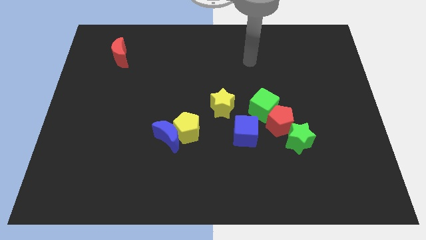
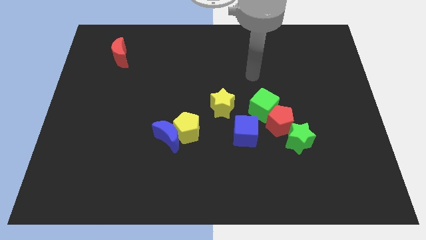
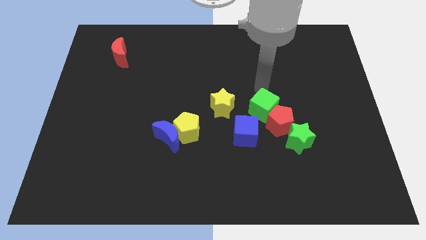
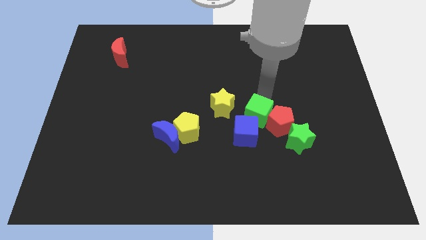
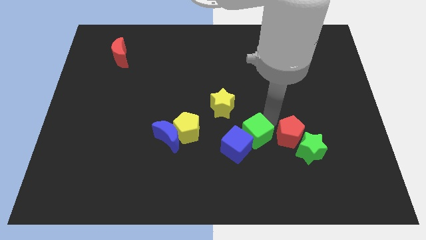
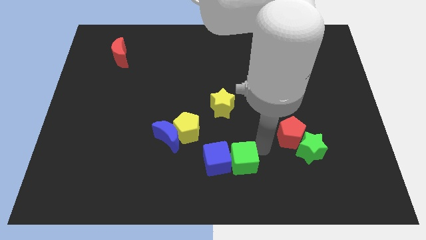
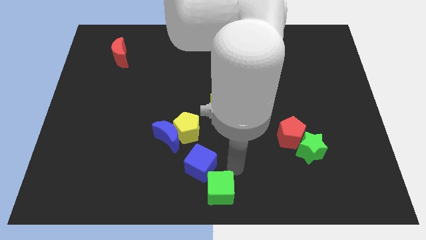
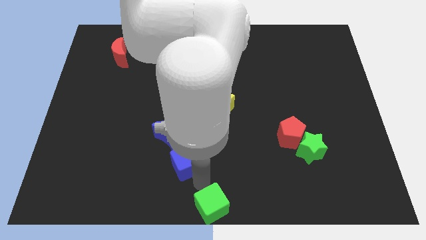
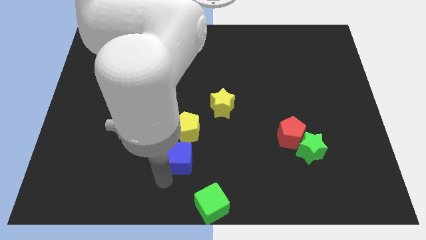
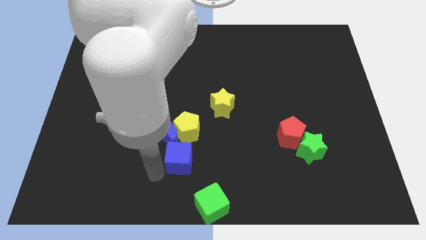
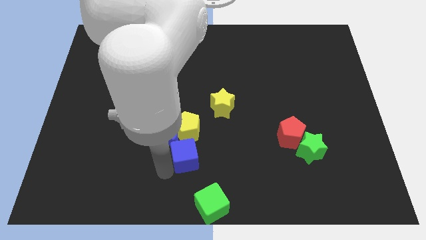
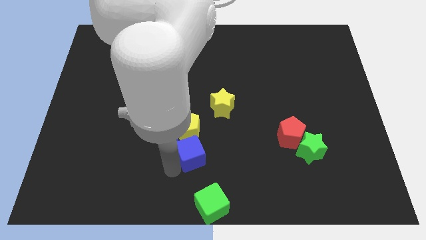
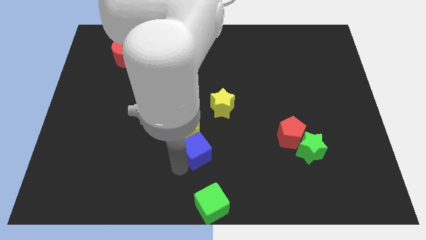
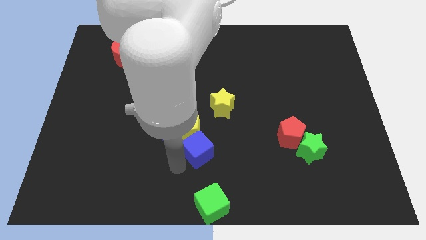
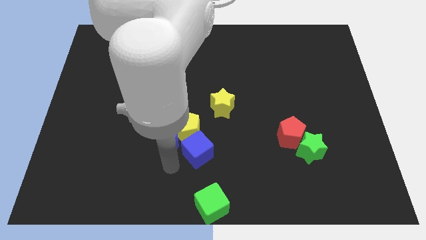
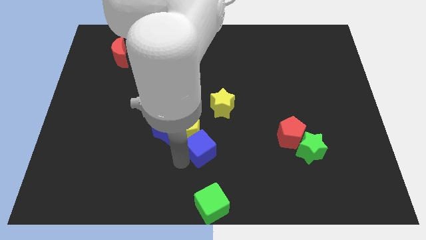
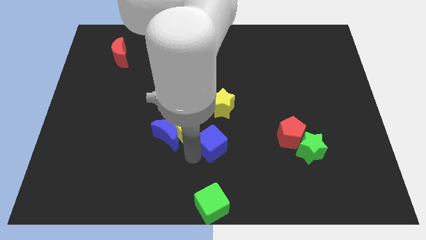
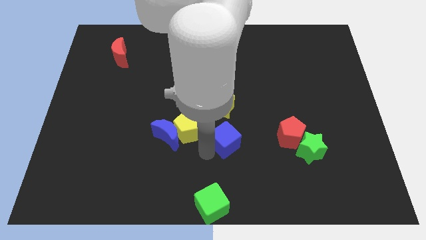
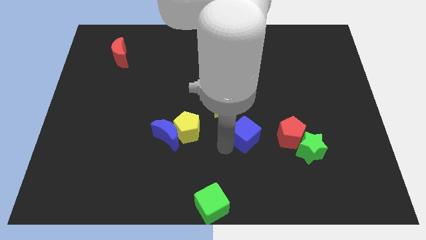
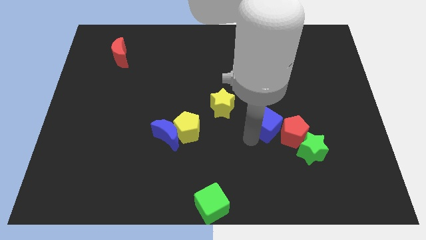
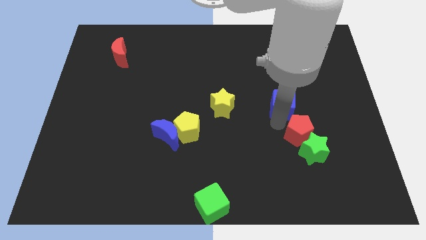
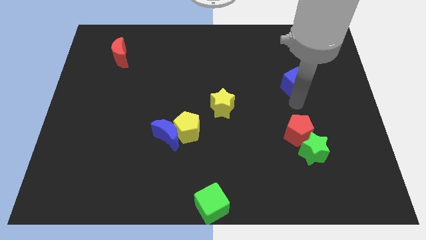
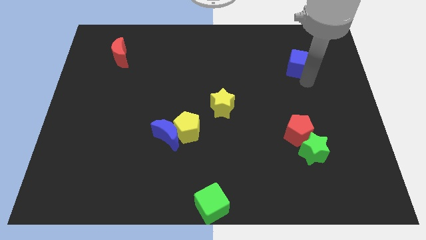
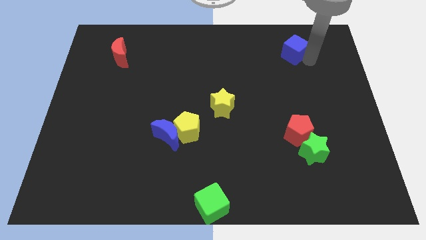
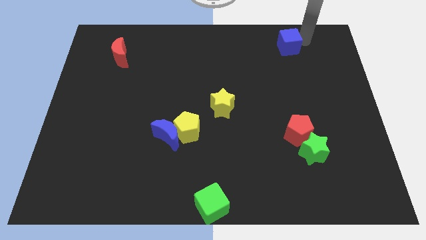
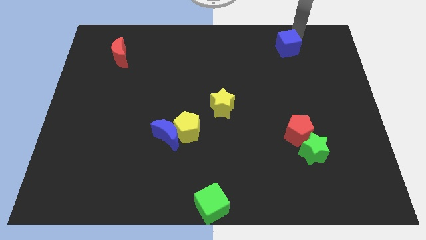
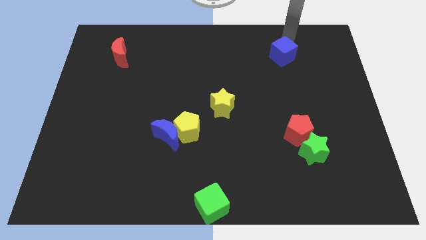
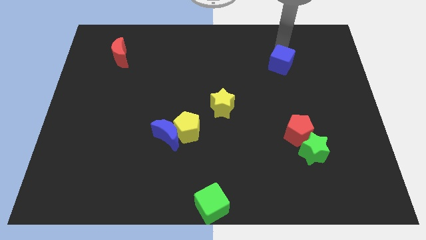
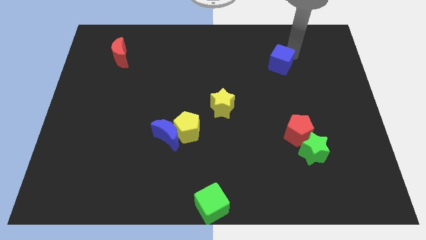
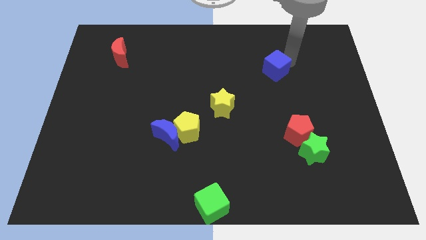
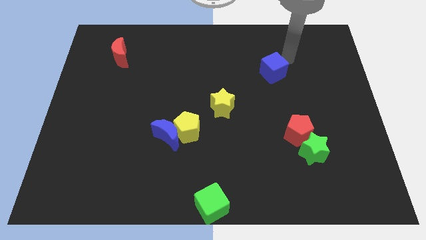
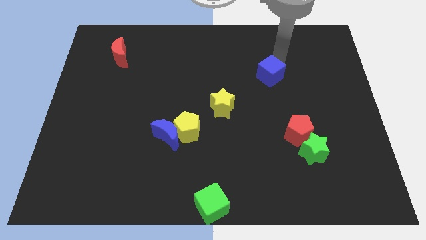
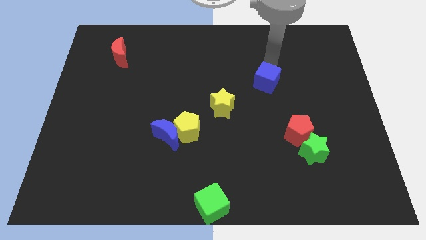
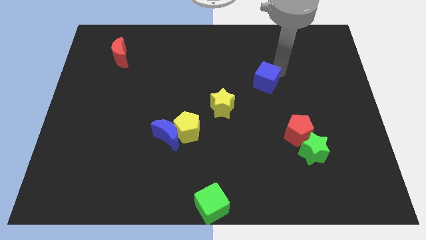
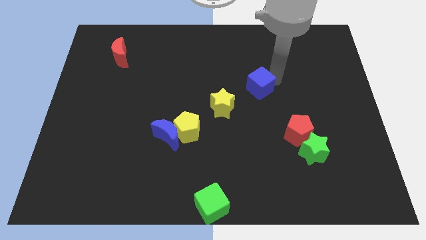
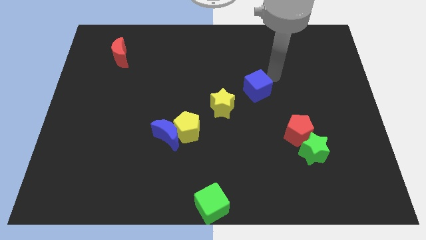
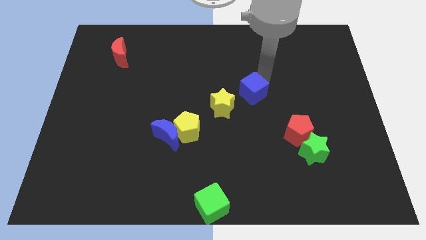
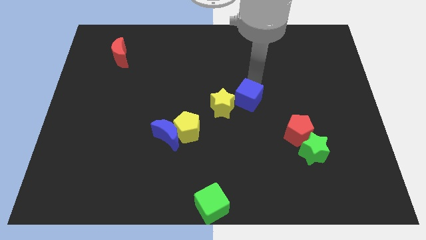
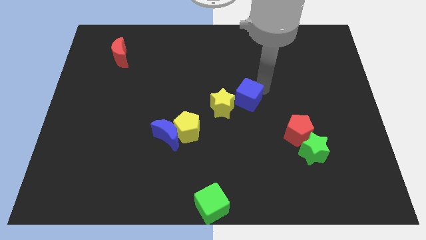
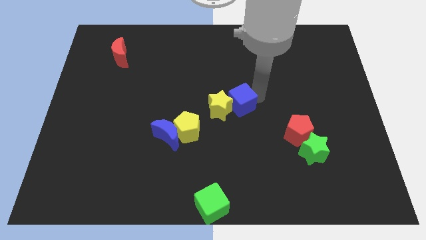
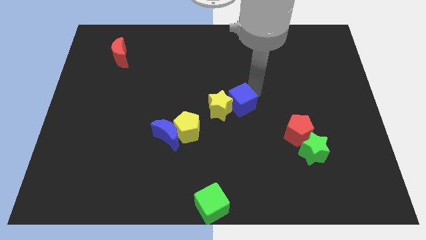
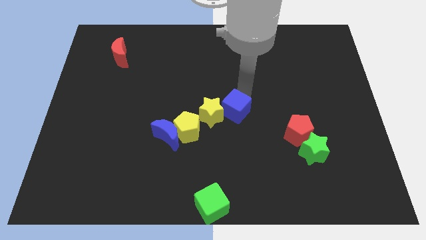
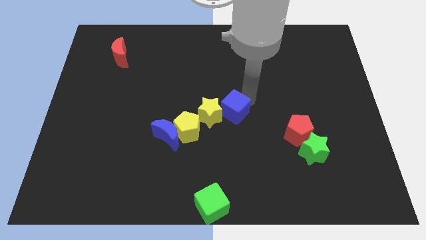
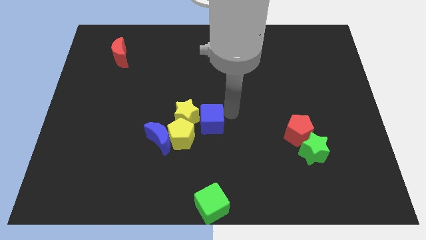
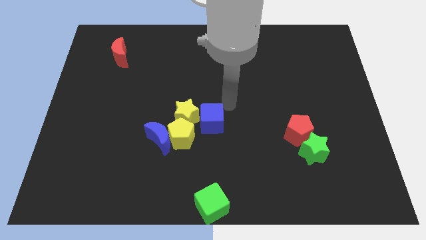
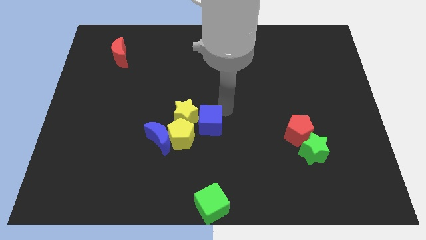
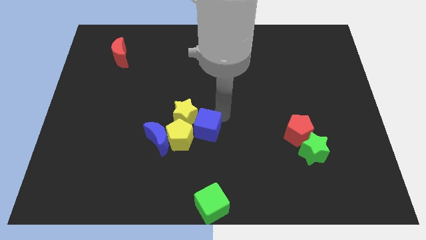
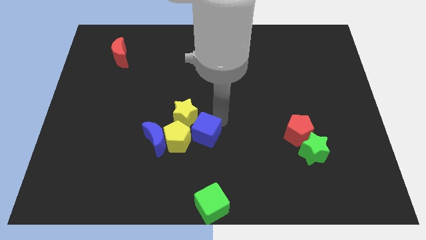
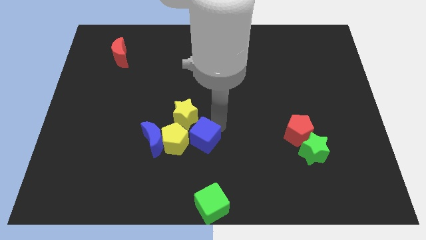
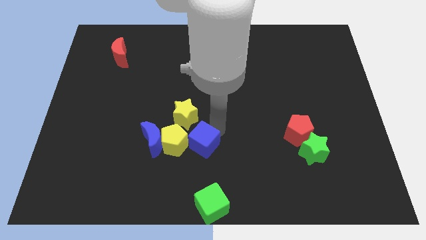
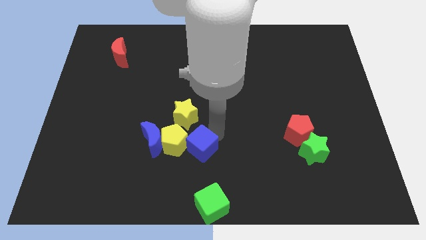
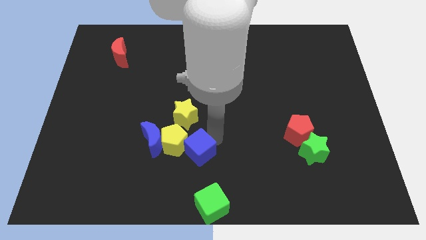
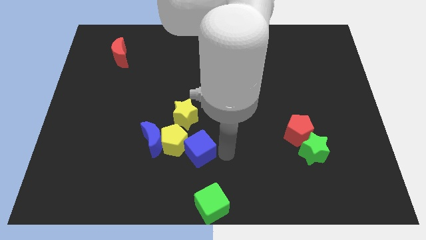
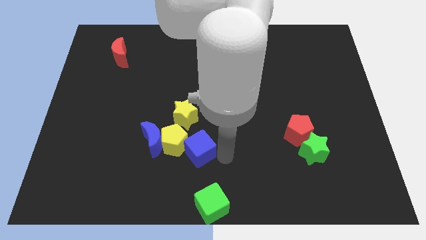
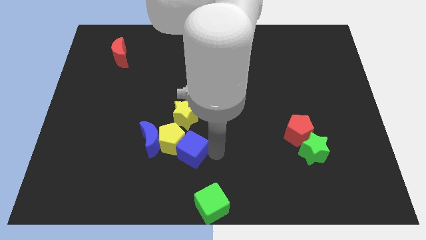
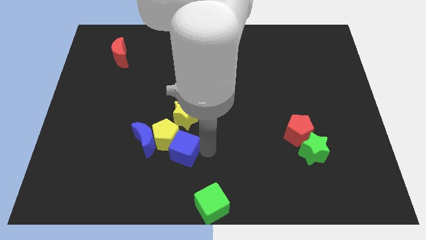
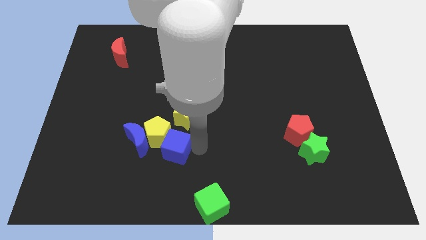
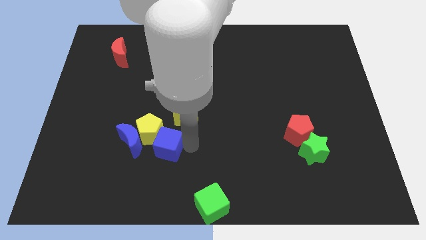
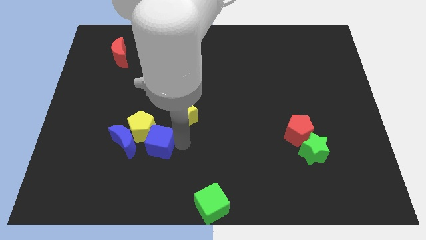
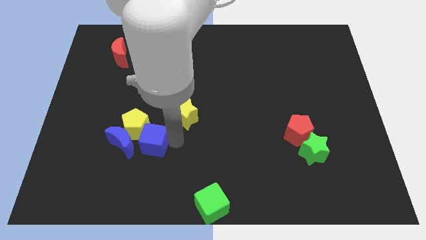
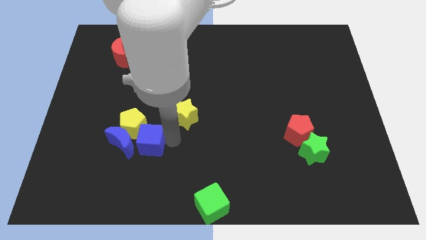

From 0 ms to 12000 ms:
move the blue cube to the blue moon

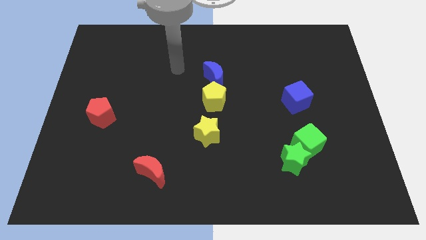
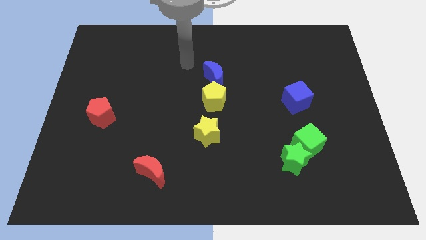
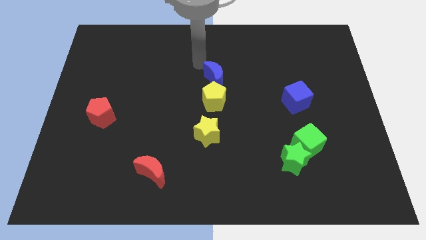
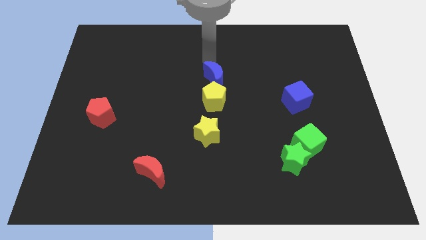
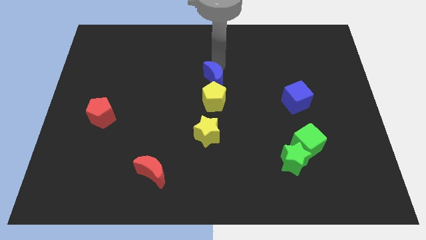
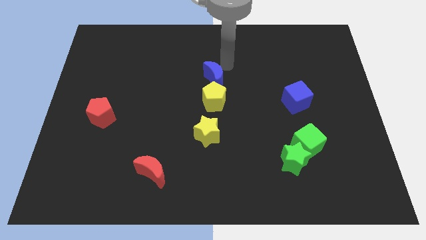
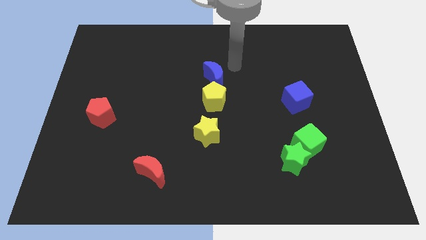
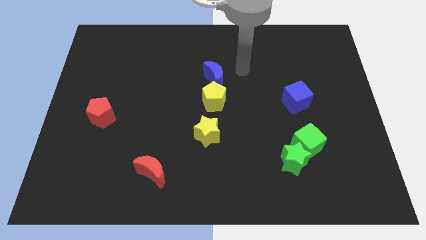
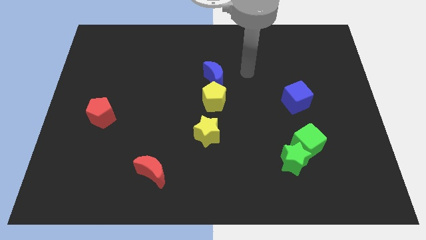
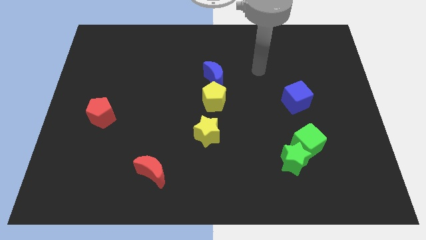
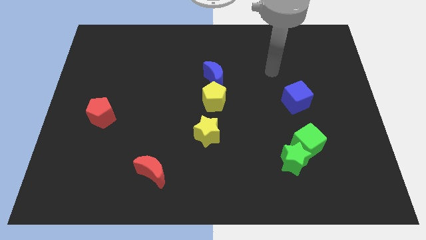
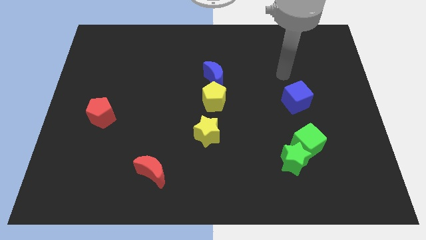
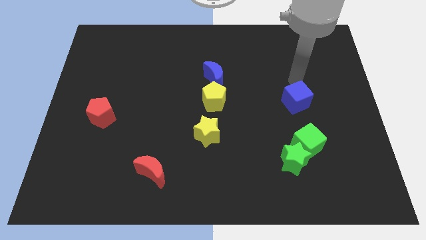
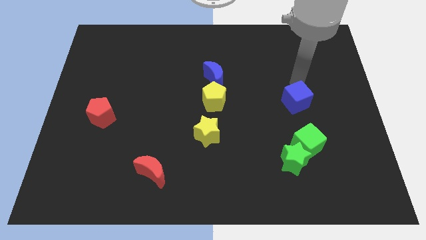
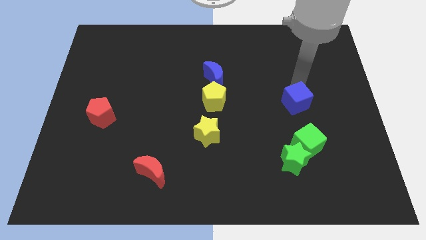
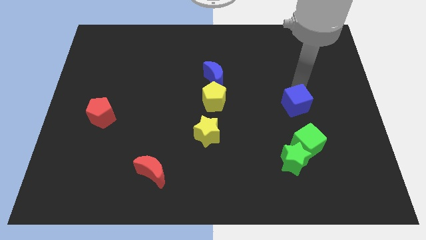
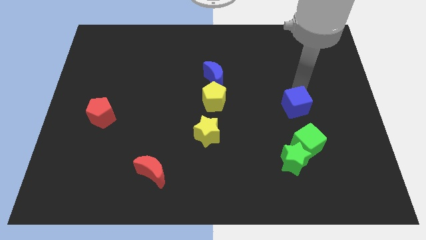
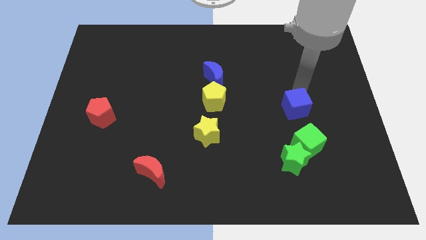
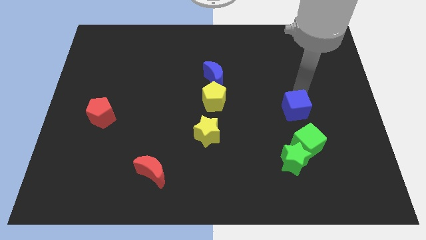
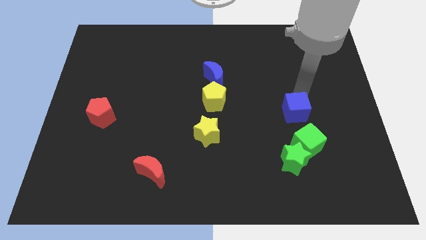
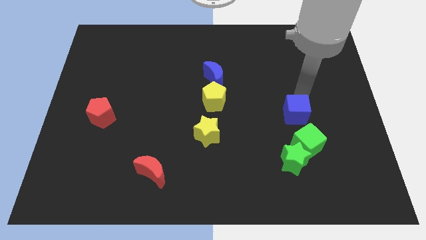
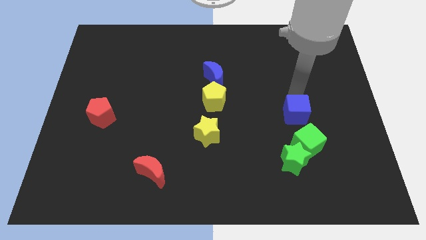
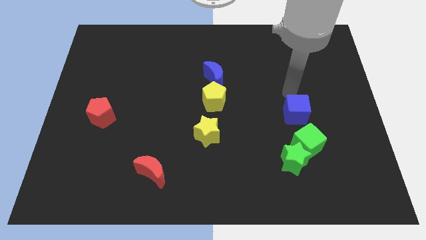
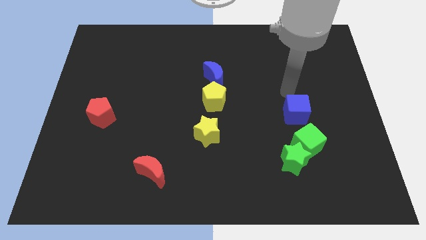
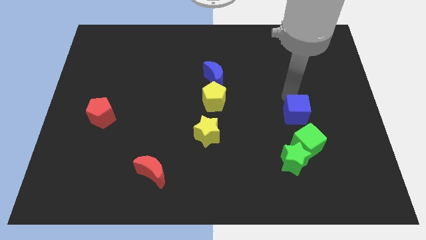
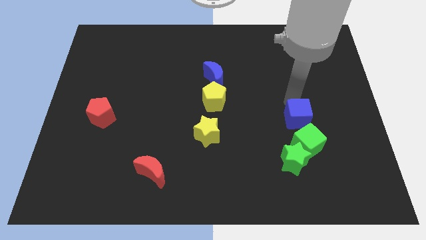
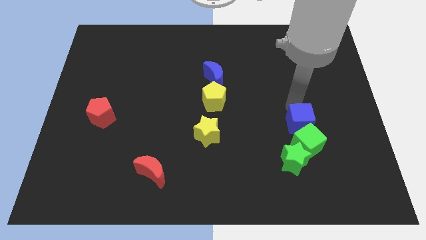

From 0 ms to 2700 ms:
move the blue cube close to the green cube
